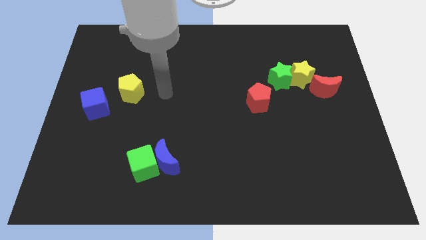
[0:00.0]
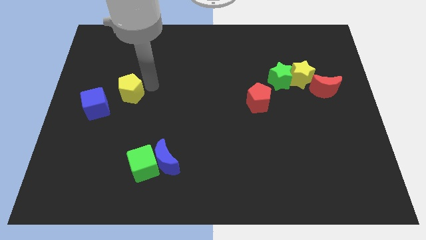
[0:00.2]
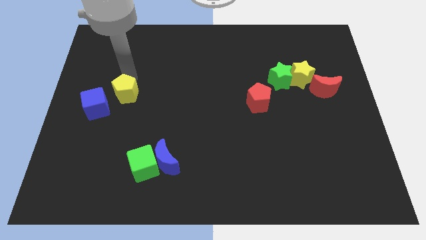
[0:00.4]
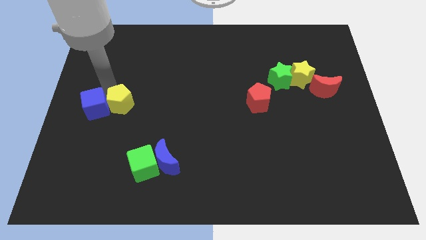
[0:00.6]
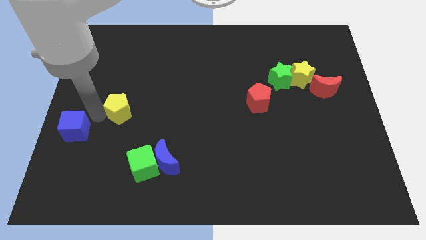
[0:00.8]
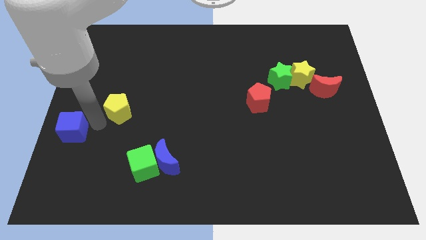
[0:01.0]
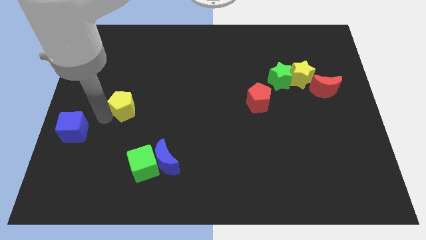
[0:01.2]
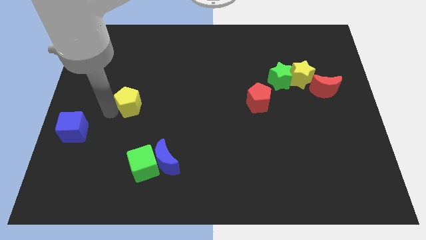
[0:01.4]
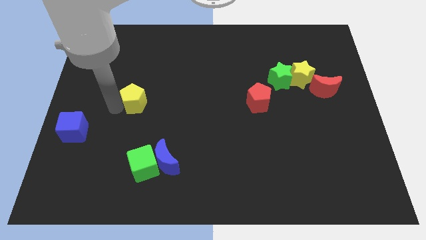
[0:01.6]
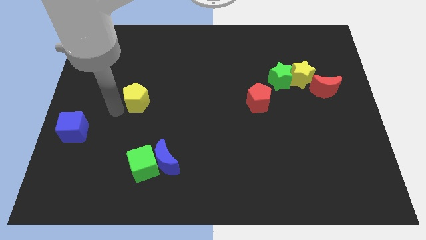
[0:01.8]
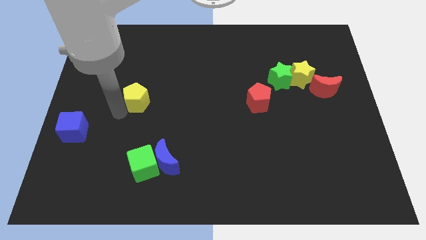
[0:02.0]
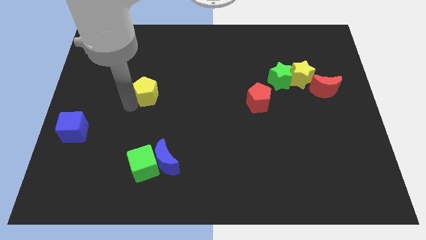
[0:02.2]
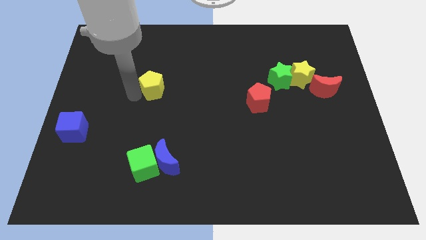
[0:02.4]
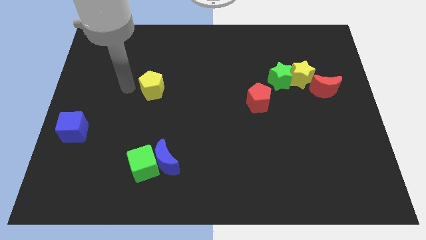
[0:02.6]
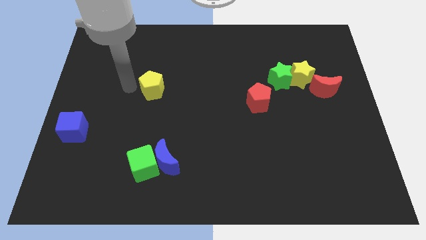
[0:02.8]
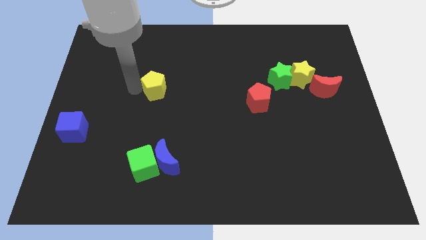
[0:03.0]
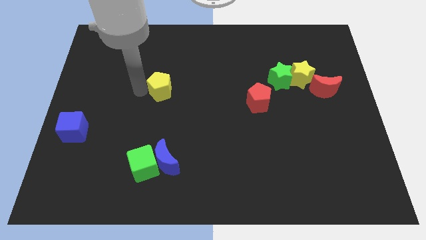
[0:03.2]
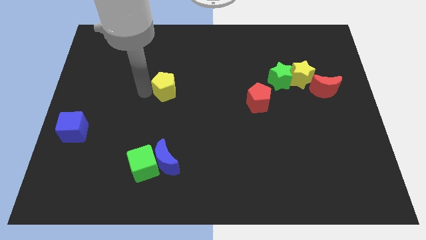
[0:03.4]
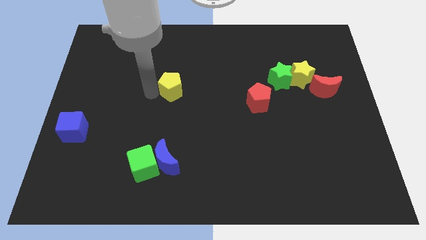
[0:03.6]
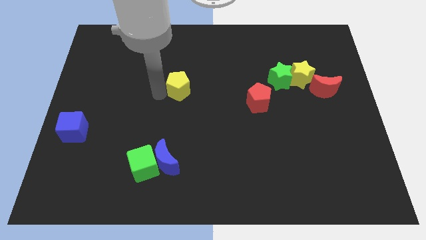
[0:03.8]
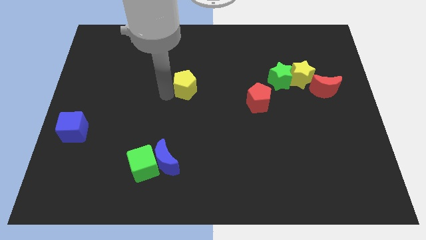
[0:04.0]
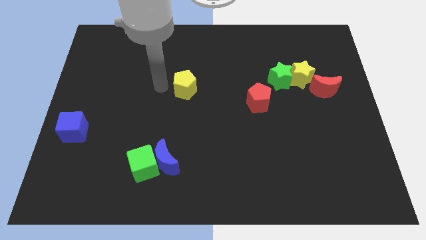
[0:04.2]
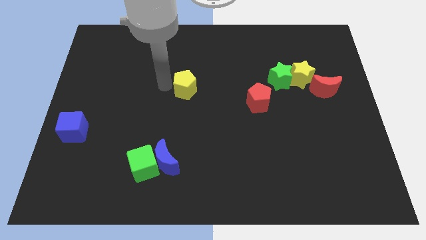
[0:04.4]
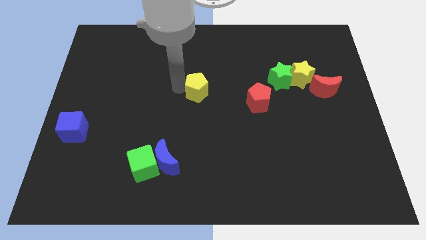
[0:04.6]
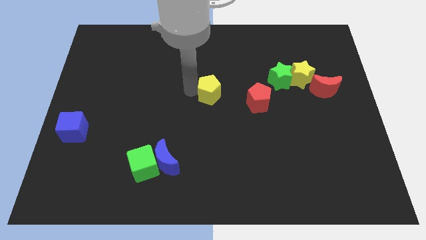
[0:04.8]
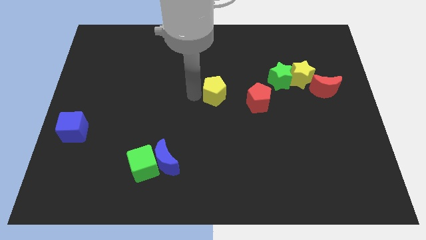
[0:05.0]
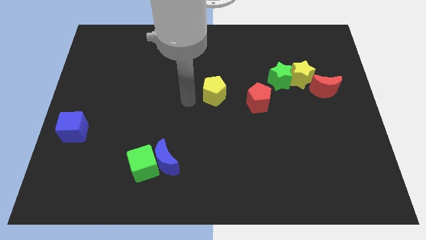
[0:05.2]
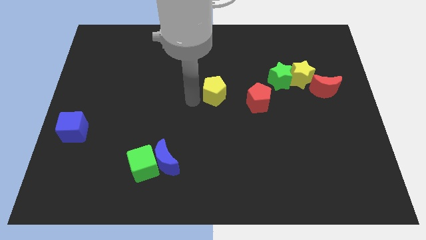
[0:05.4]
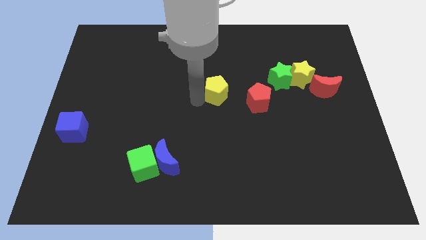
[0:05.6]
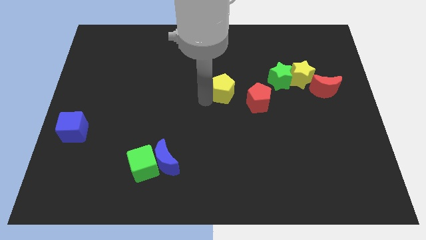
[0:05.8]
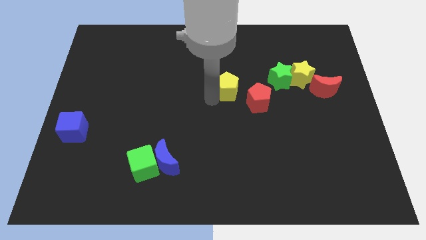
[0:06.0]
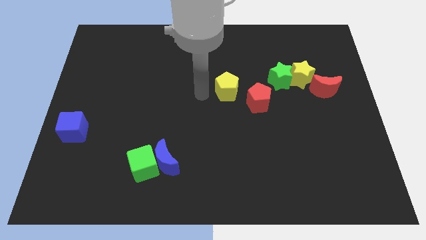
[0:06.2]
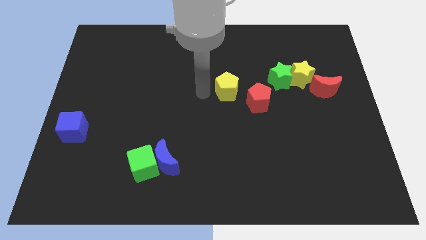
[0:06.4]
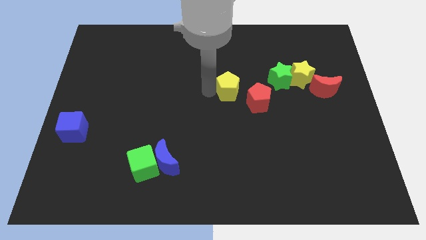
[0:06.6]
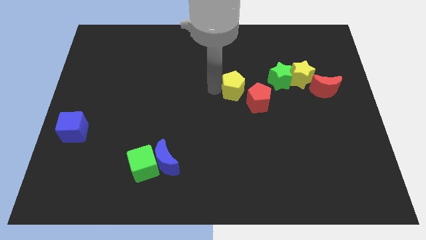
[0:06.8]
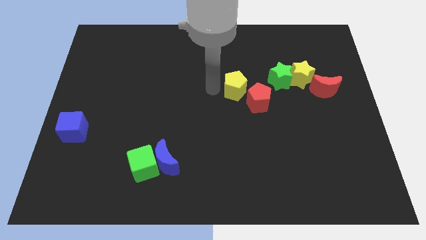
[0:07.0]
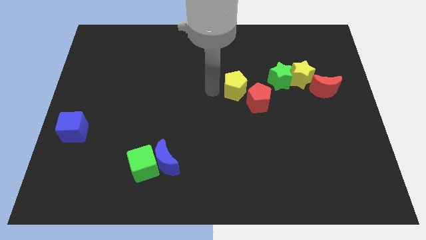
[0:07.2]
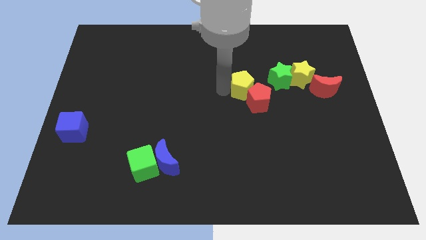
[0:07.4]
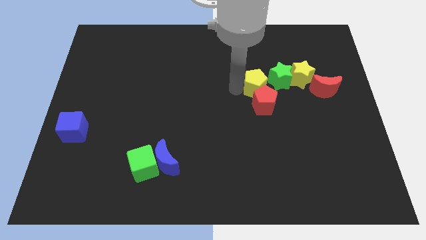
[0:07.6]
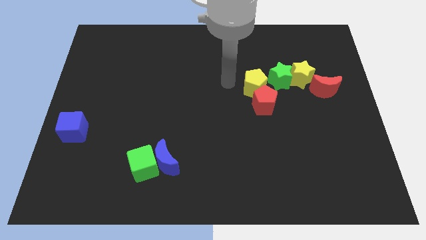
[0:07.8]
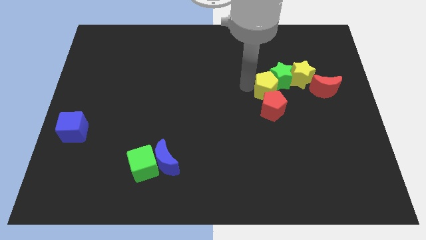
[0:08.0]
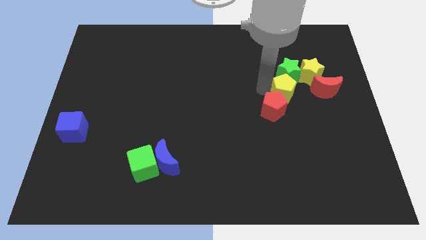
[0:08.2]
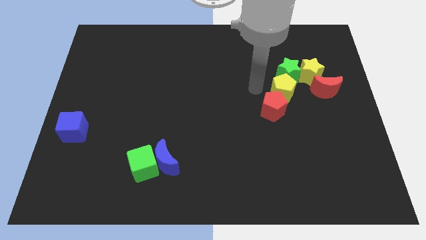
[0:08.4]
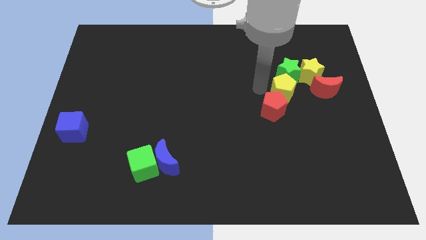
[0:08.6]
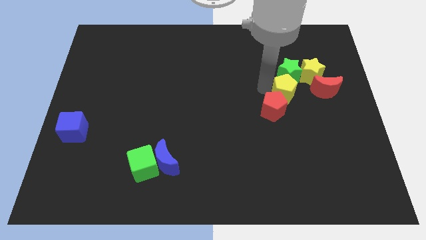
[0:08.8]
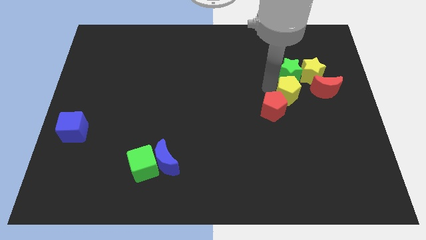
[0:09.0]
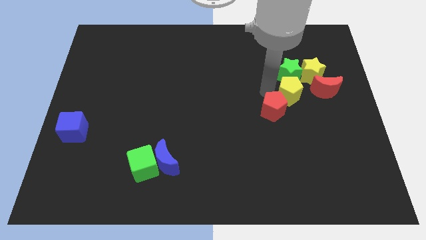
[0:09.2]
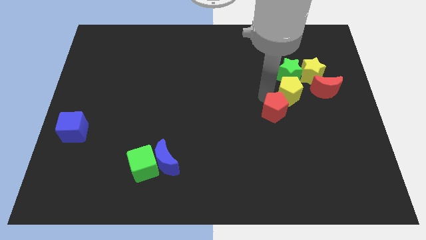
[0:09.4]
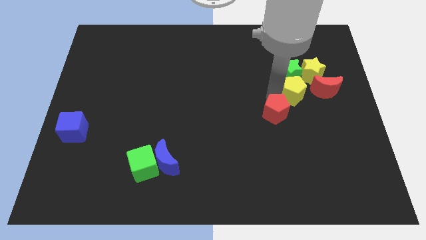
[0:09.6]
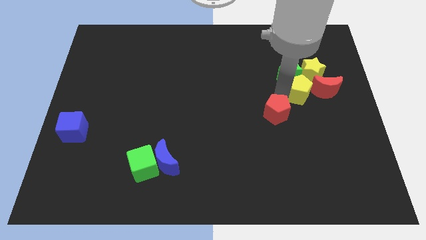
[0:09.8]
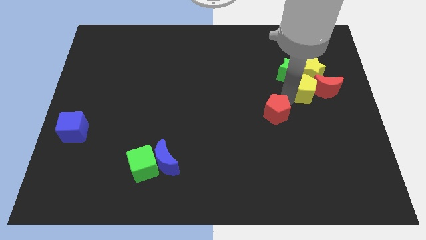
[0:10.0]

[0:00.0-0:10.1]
slide the yellow pentagon next to the red moon

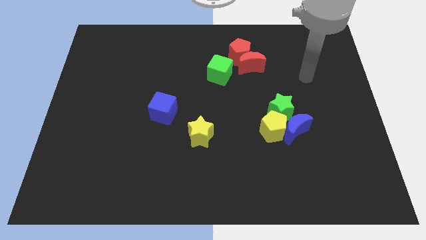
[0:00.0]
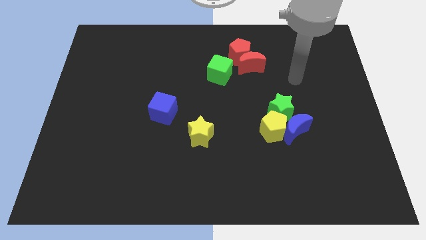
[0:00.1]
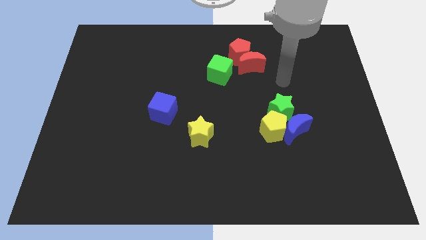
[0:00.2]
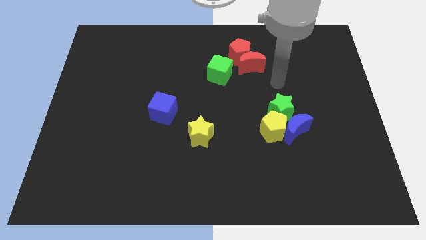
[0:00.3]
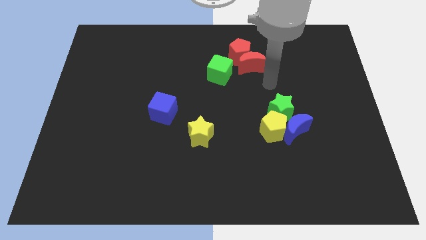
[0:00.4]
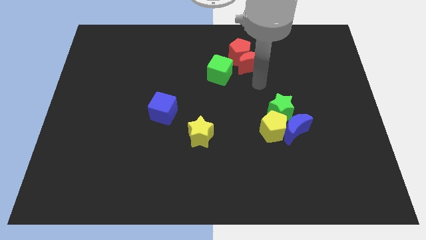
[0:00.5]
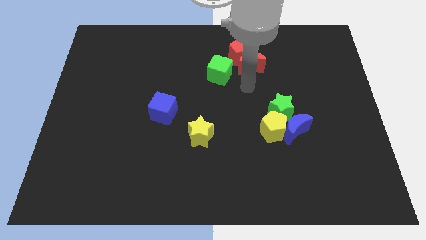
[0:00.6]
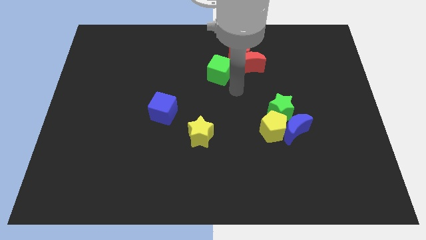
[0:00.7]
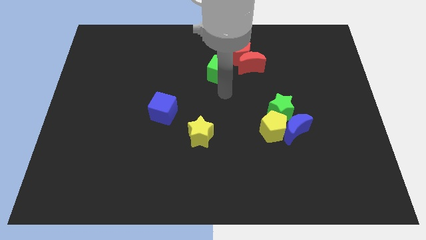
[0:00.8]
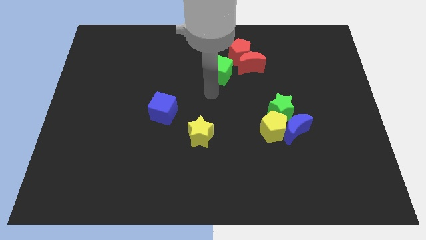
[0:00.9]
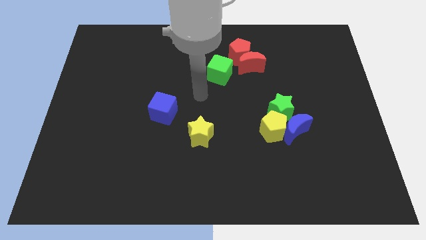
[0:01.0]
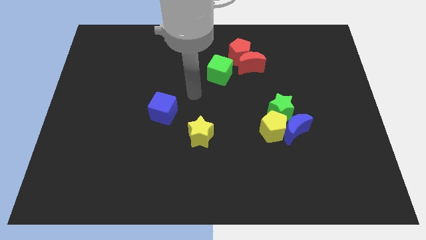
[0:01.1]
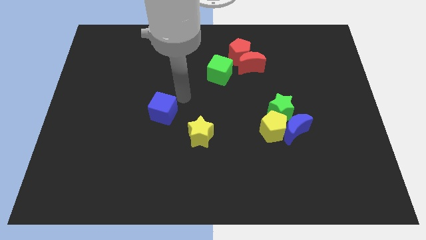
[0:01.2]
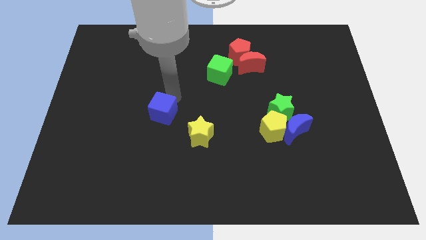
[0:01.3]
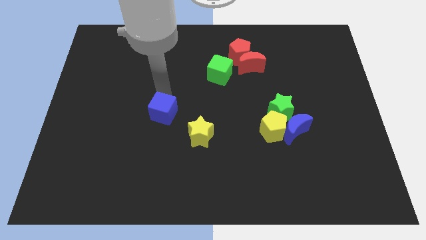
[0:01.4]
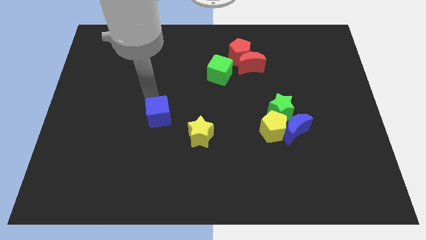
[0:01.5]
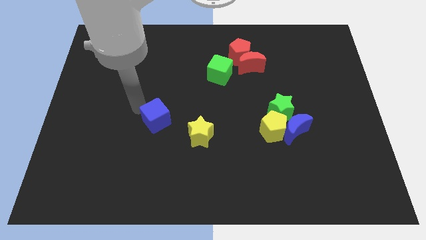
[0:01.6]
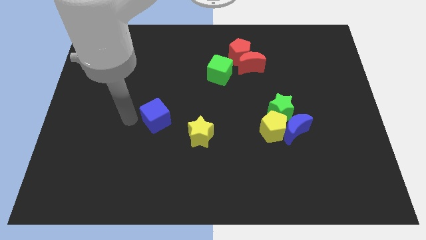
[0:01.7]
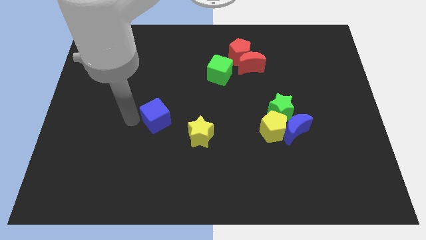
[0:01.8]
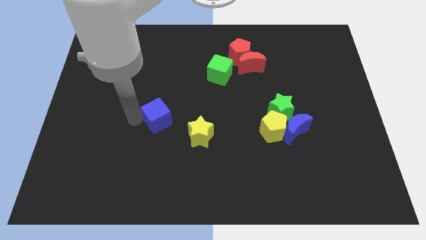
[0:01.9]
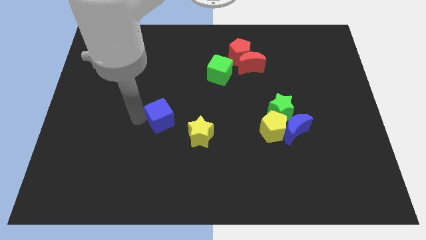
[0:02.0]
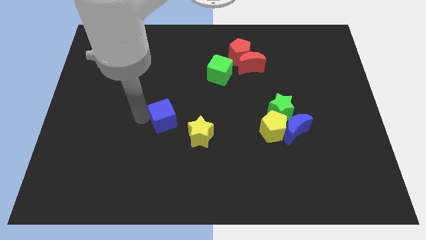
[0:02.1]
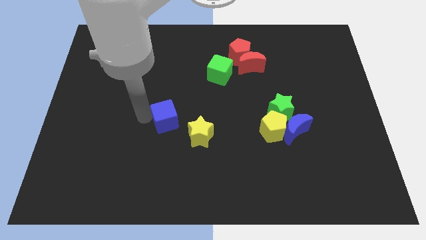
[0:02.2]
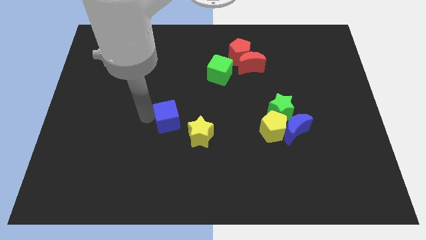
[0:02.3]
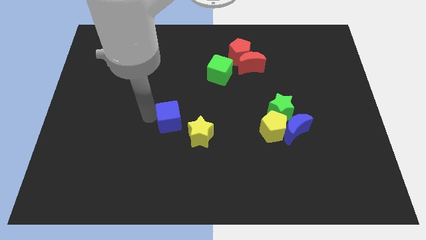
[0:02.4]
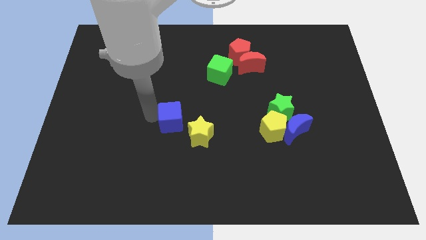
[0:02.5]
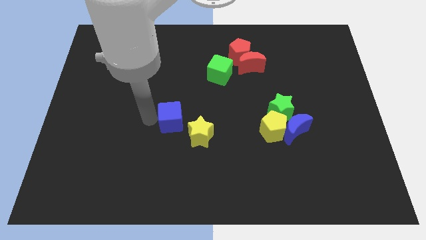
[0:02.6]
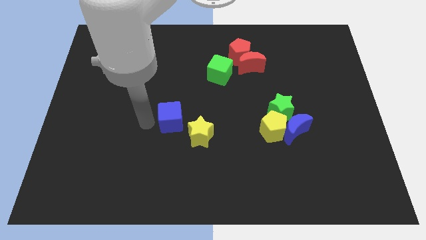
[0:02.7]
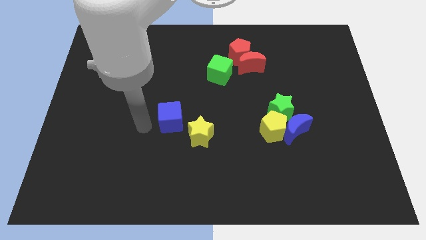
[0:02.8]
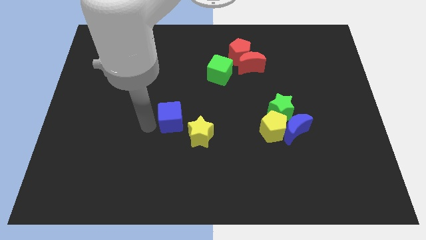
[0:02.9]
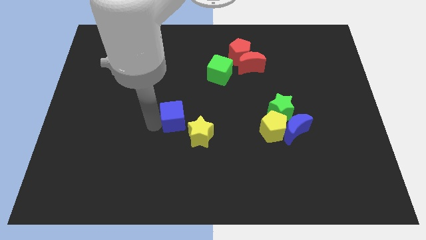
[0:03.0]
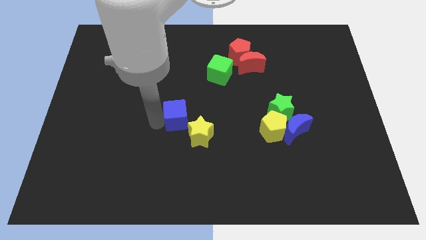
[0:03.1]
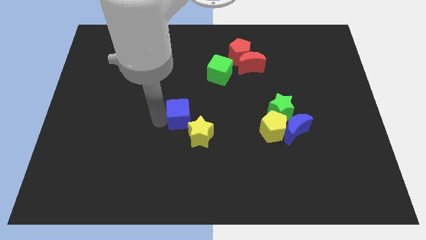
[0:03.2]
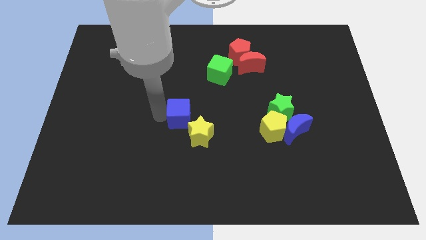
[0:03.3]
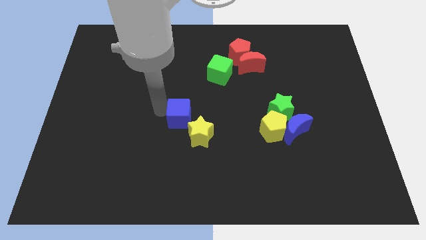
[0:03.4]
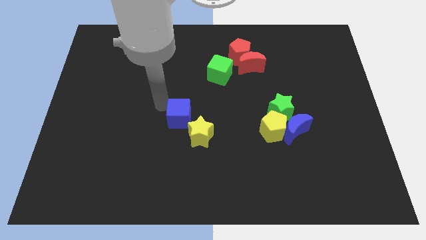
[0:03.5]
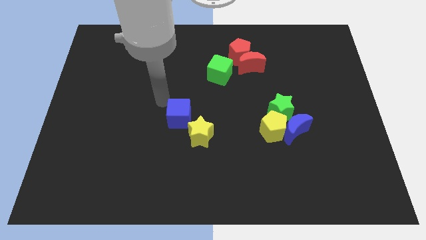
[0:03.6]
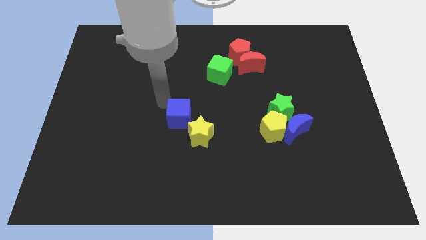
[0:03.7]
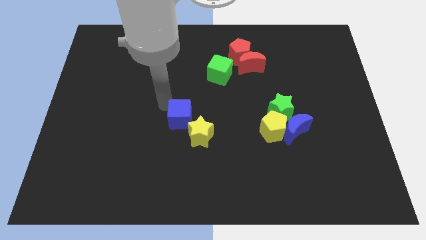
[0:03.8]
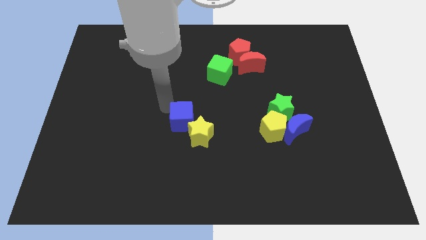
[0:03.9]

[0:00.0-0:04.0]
move the blue cube close to the yellow star
